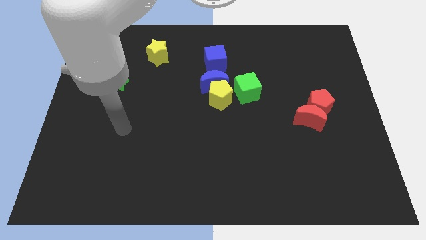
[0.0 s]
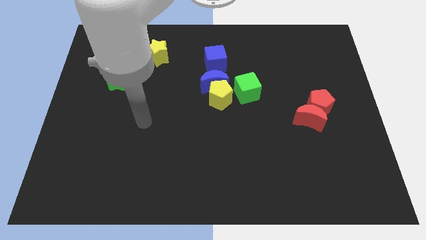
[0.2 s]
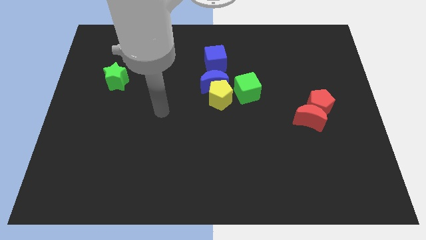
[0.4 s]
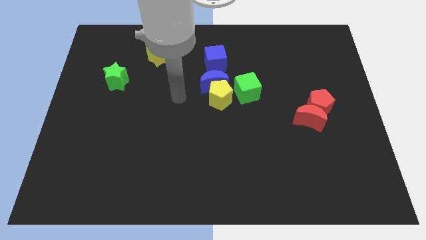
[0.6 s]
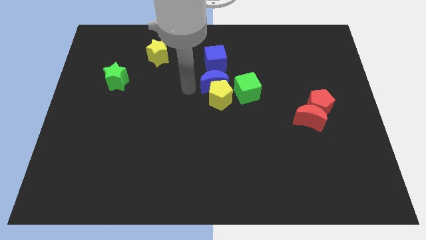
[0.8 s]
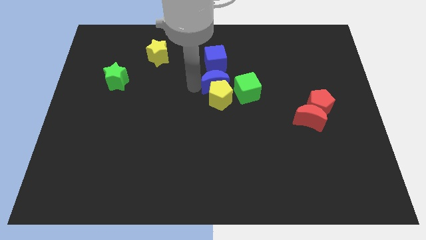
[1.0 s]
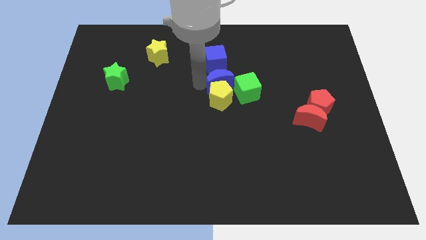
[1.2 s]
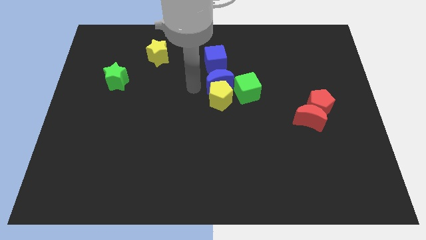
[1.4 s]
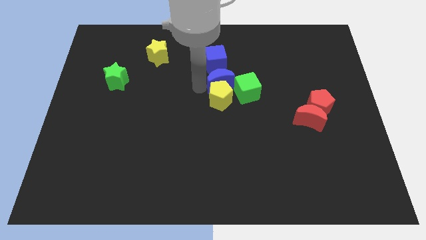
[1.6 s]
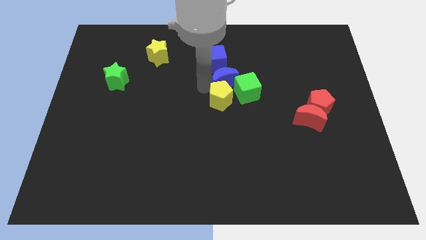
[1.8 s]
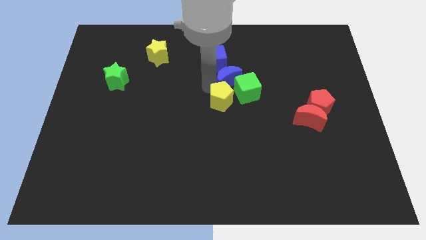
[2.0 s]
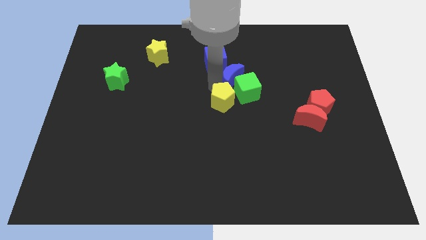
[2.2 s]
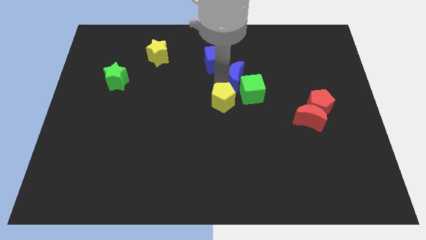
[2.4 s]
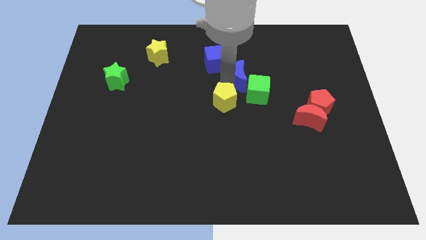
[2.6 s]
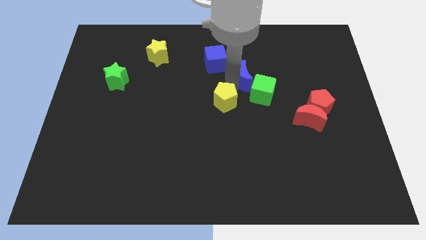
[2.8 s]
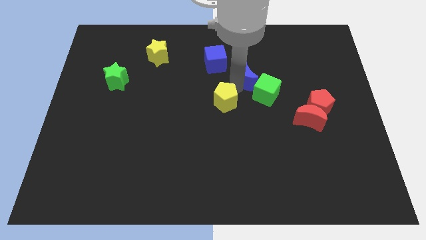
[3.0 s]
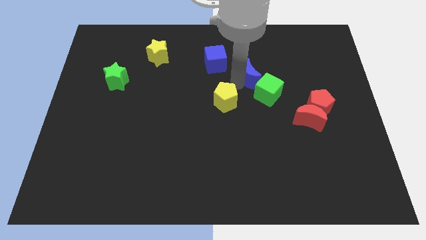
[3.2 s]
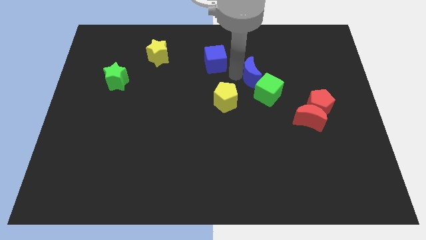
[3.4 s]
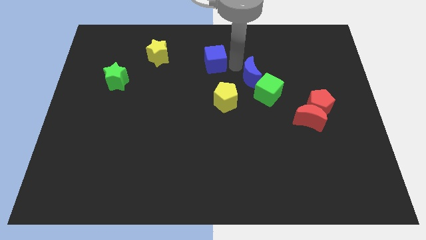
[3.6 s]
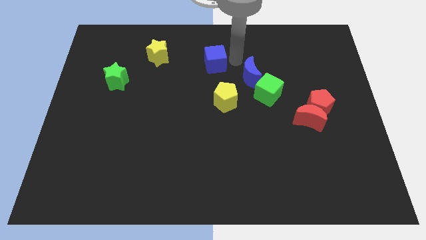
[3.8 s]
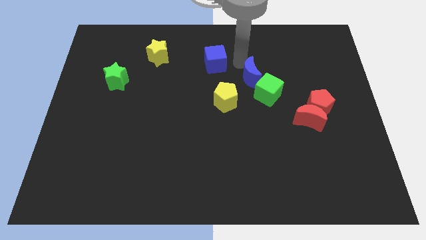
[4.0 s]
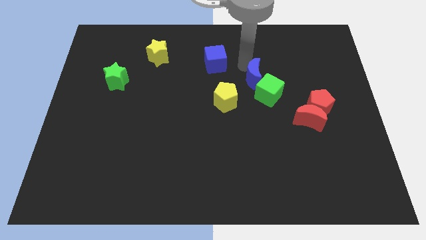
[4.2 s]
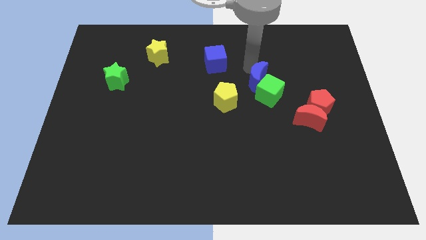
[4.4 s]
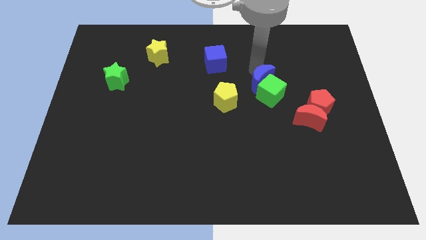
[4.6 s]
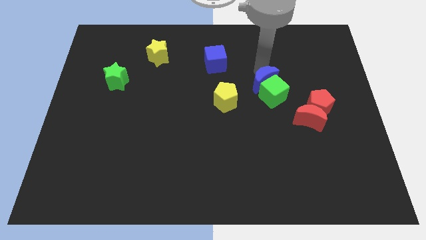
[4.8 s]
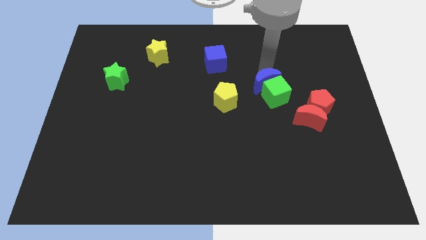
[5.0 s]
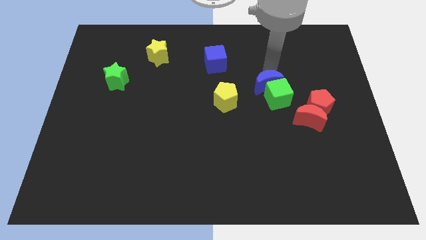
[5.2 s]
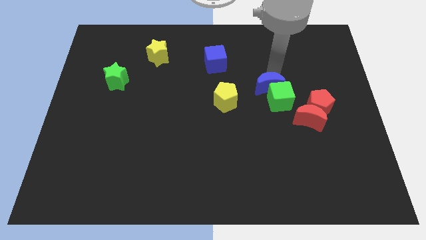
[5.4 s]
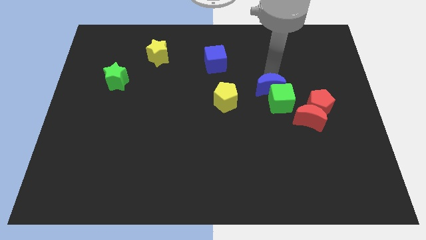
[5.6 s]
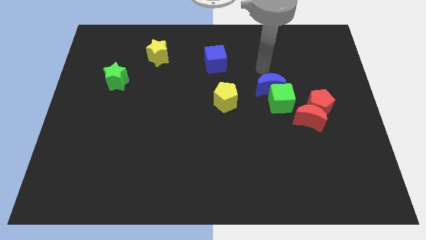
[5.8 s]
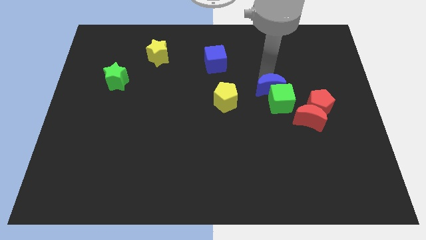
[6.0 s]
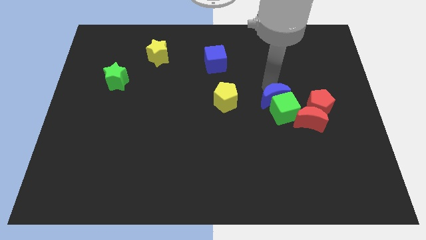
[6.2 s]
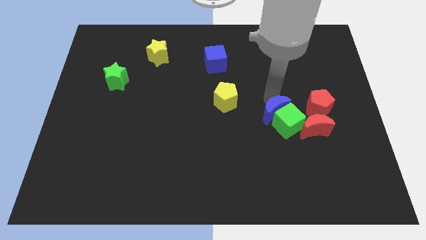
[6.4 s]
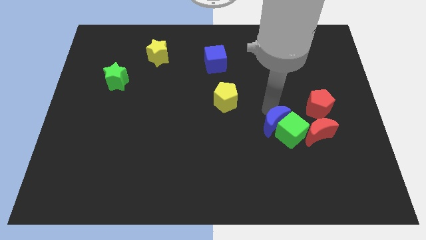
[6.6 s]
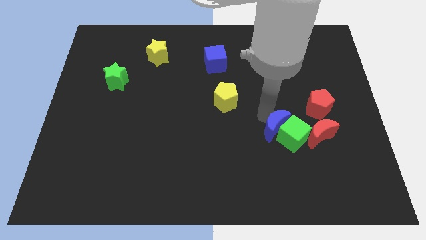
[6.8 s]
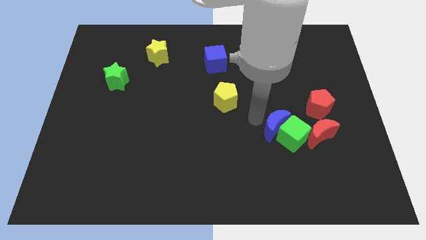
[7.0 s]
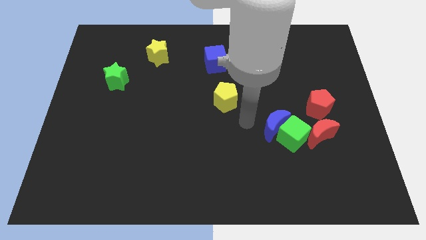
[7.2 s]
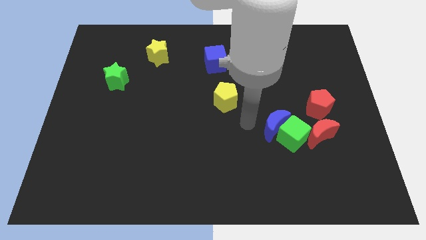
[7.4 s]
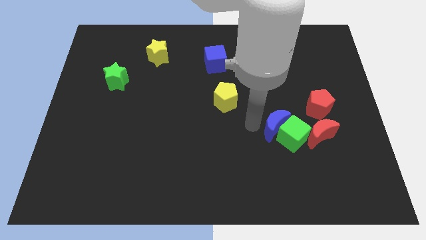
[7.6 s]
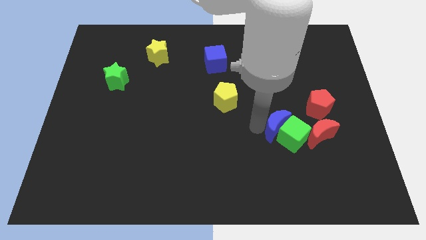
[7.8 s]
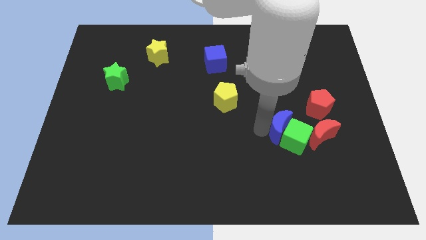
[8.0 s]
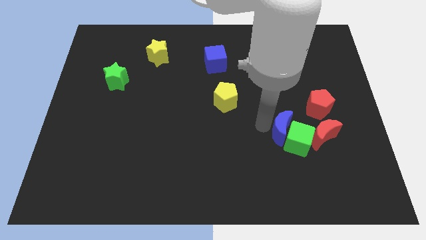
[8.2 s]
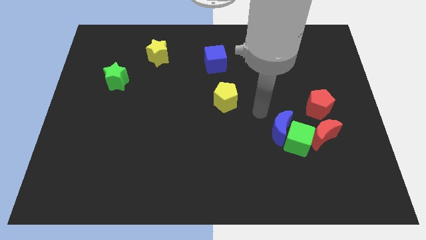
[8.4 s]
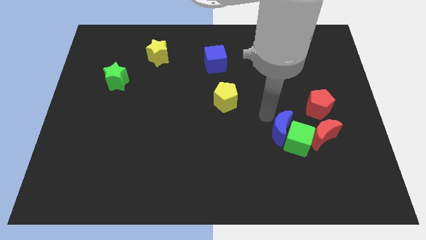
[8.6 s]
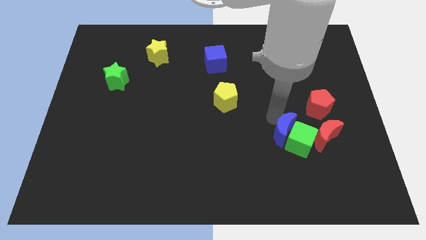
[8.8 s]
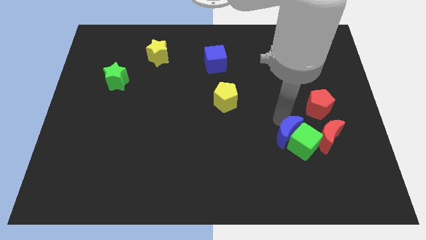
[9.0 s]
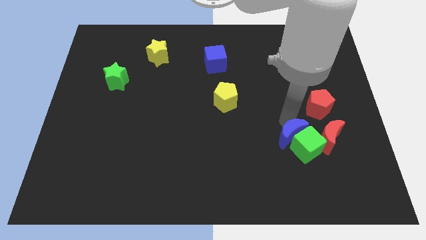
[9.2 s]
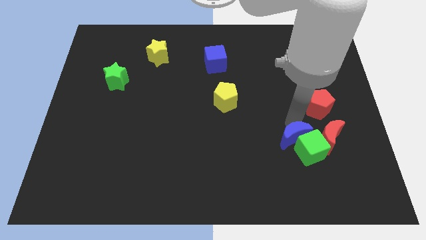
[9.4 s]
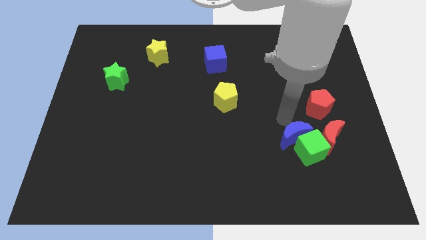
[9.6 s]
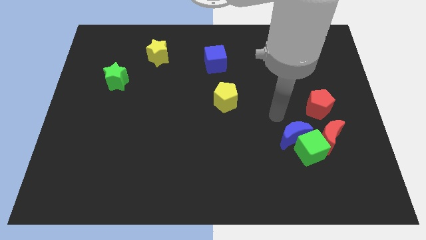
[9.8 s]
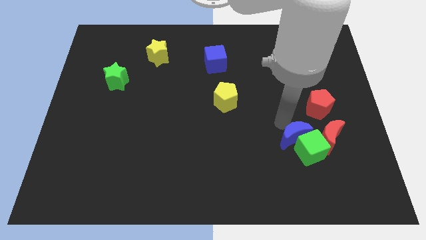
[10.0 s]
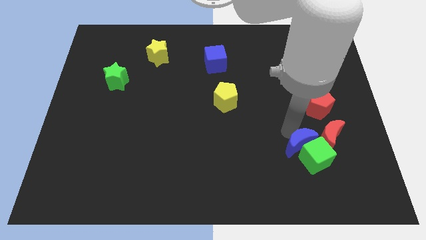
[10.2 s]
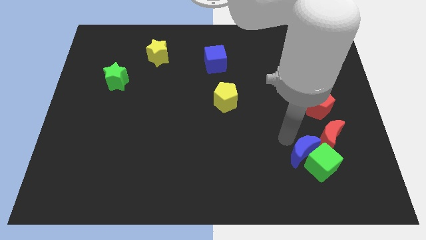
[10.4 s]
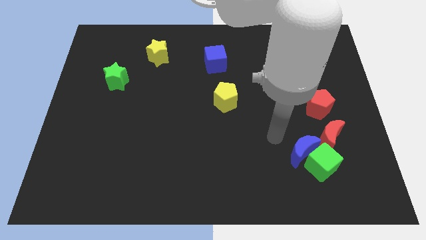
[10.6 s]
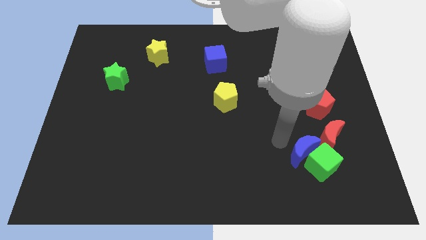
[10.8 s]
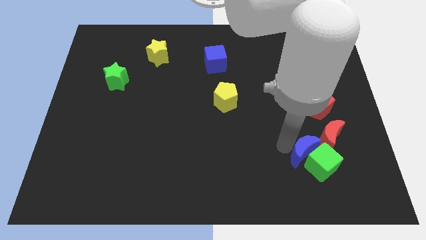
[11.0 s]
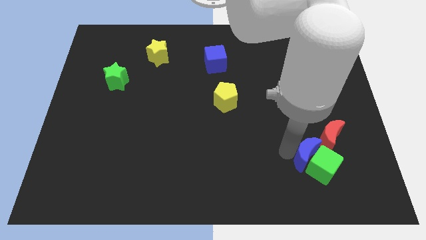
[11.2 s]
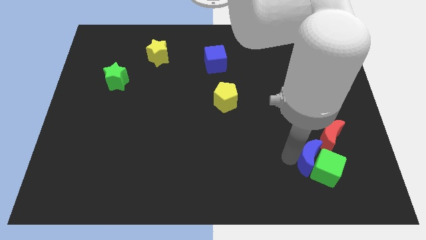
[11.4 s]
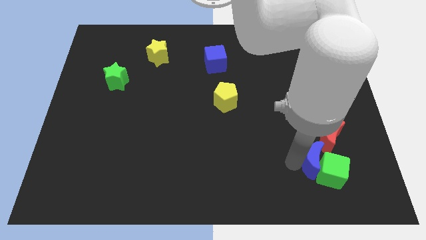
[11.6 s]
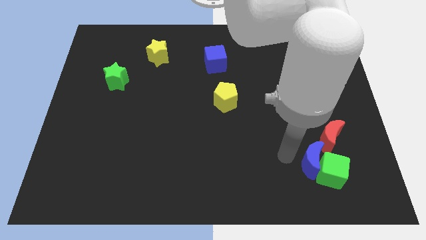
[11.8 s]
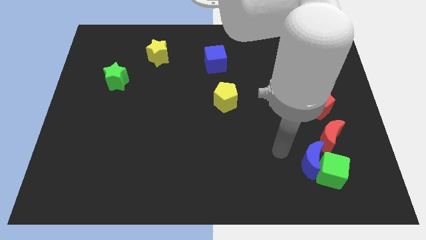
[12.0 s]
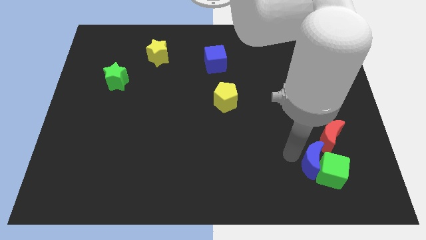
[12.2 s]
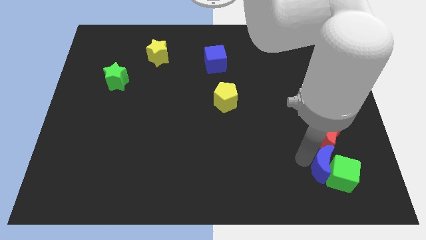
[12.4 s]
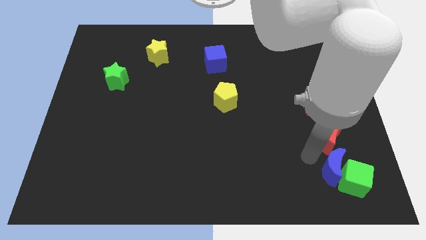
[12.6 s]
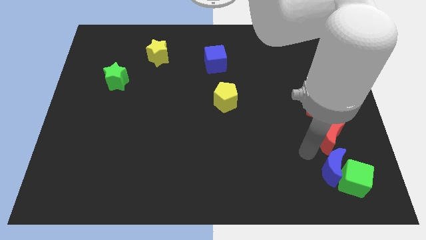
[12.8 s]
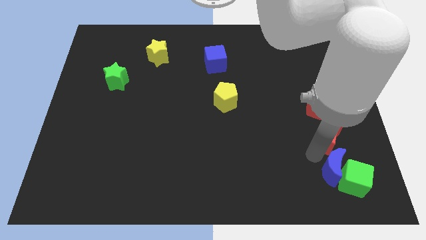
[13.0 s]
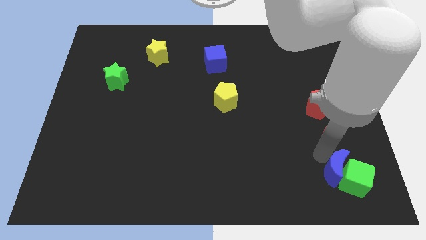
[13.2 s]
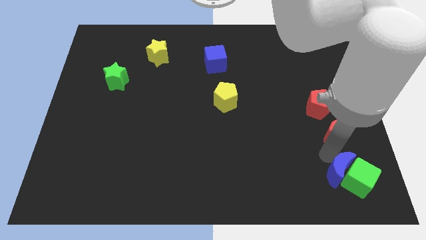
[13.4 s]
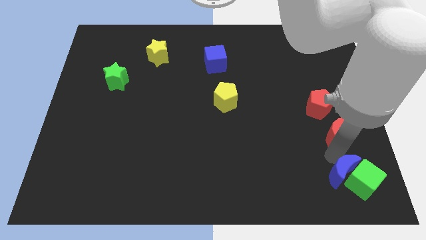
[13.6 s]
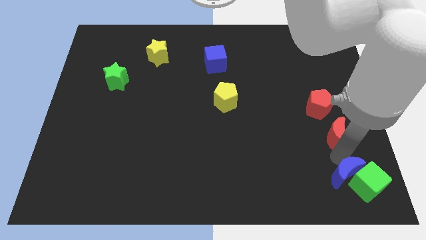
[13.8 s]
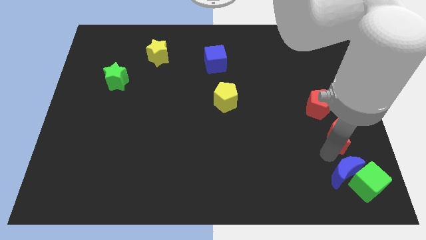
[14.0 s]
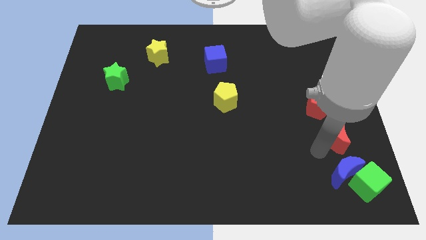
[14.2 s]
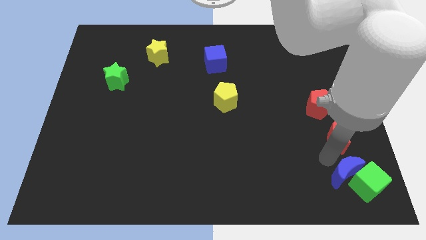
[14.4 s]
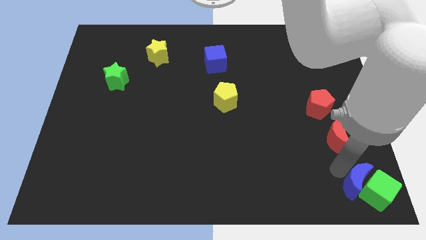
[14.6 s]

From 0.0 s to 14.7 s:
move the blue moon to the bottom right

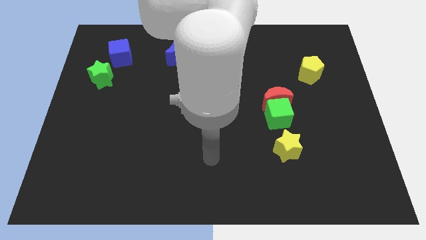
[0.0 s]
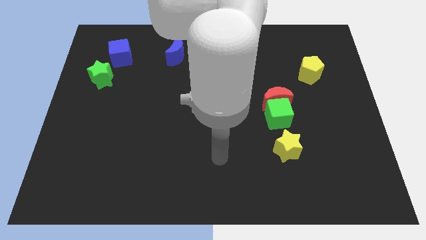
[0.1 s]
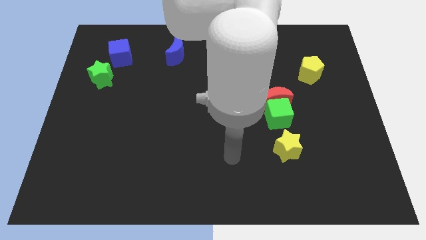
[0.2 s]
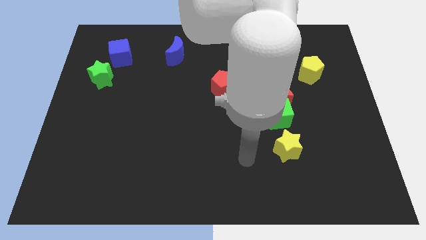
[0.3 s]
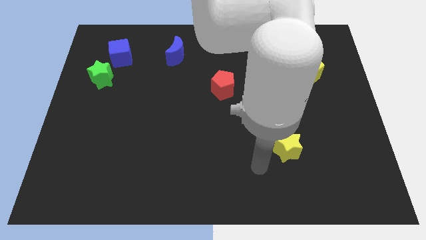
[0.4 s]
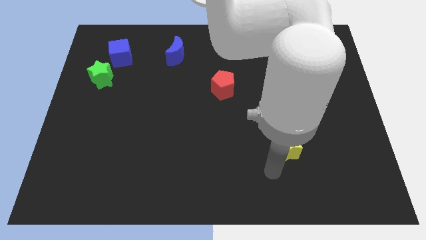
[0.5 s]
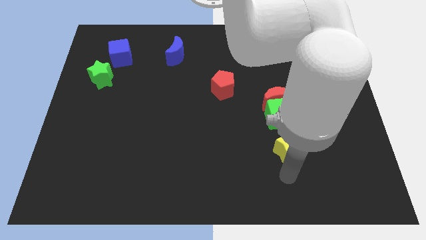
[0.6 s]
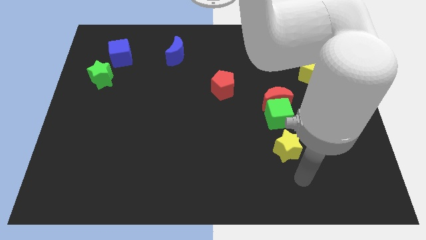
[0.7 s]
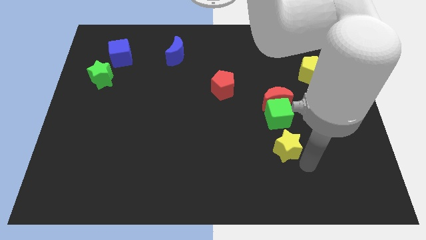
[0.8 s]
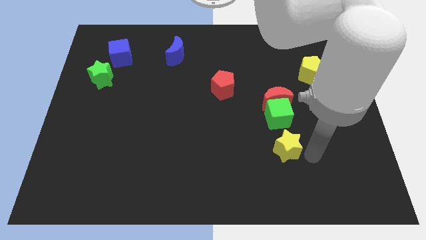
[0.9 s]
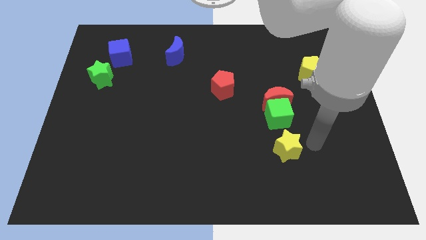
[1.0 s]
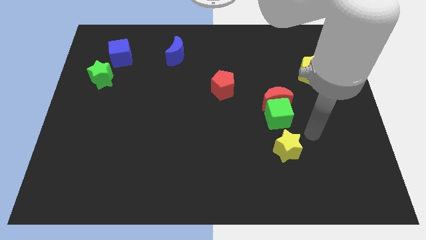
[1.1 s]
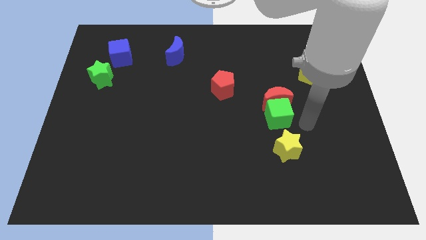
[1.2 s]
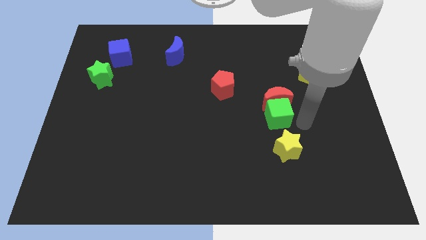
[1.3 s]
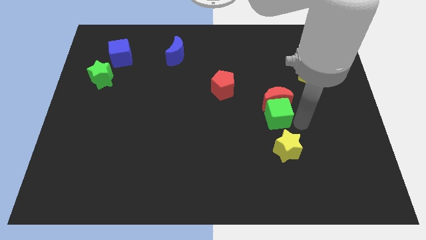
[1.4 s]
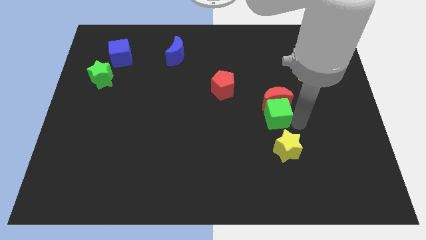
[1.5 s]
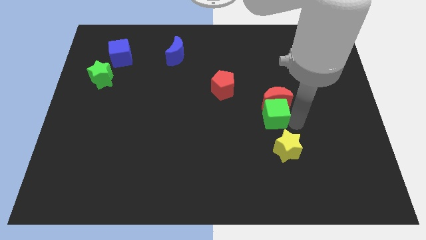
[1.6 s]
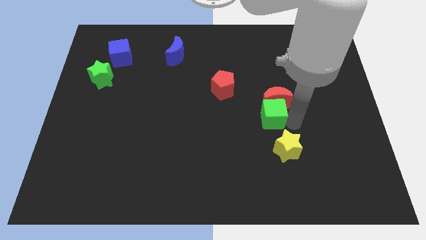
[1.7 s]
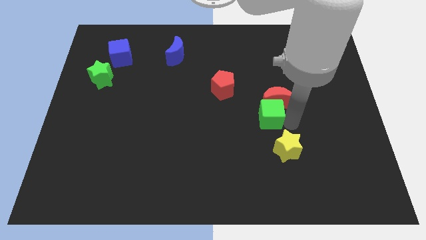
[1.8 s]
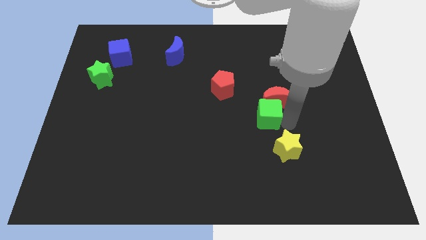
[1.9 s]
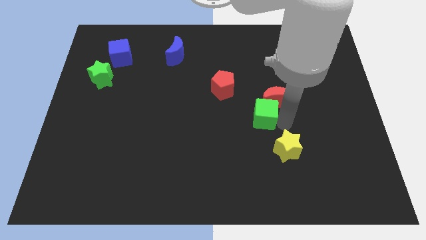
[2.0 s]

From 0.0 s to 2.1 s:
move the green cube to the middle of the board
